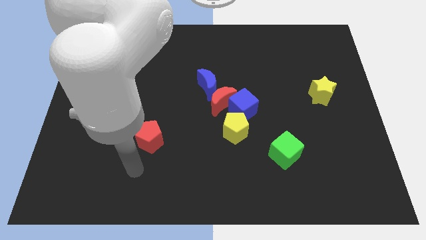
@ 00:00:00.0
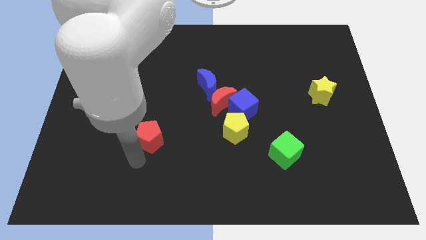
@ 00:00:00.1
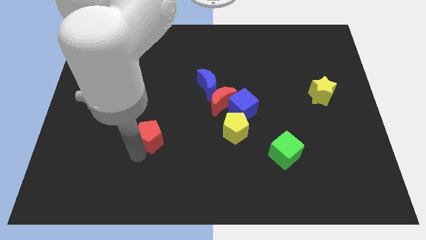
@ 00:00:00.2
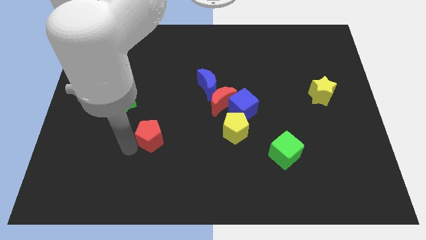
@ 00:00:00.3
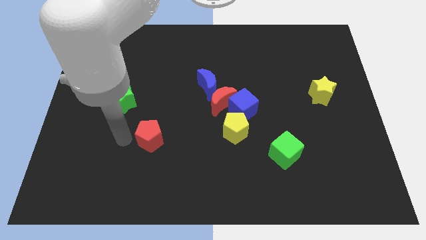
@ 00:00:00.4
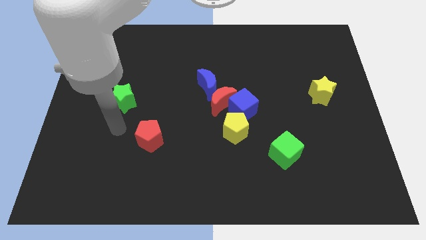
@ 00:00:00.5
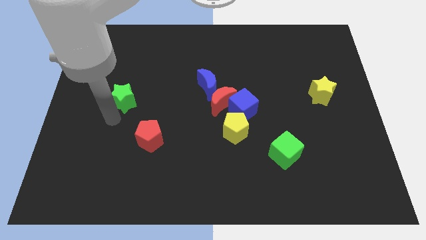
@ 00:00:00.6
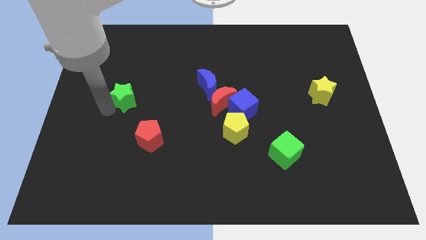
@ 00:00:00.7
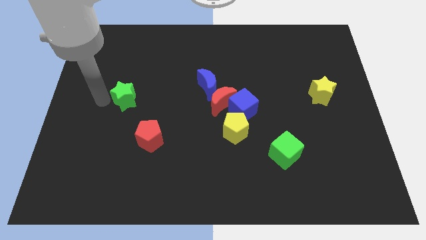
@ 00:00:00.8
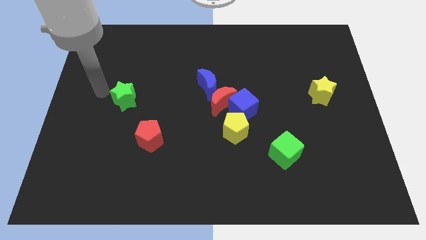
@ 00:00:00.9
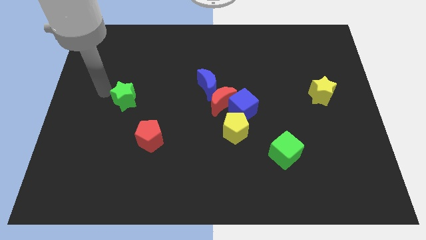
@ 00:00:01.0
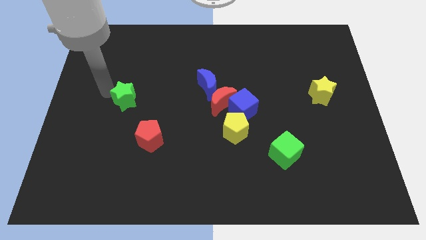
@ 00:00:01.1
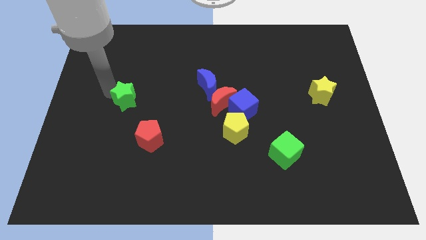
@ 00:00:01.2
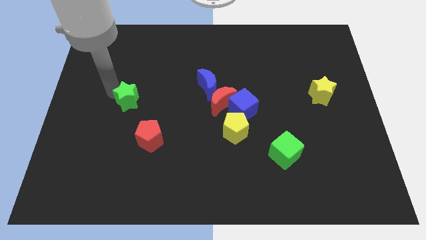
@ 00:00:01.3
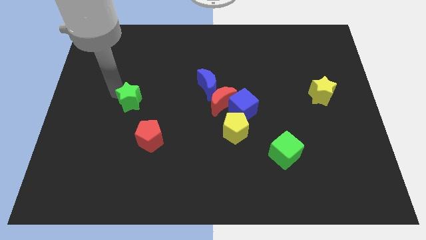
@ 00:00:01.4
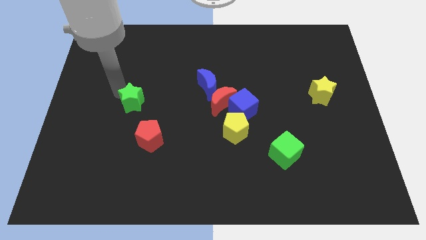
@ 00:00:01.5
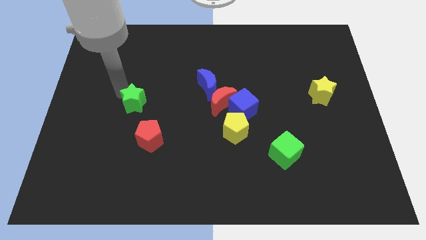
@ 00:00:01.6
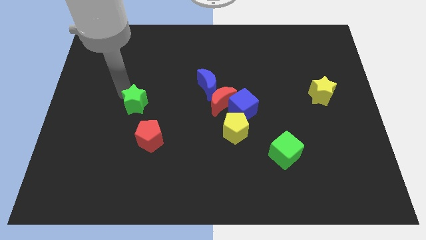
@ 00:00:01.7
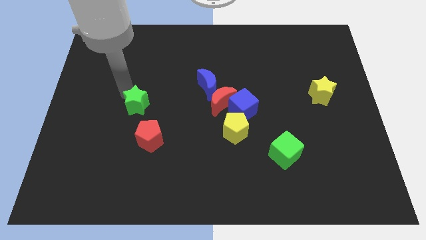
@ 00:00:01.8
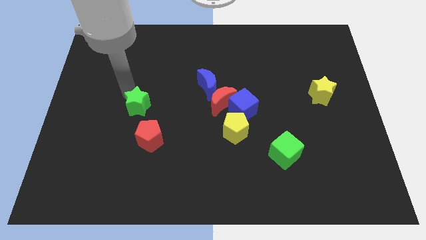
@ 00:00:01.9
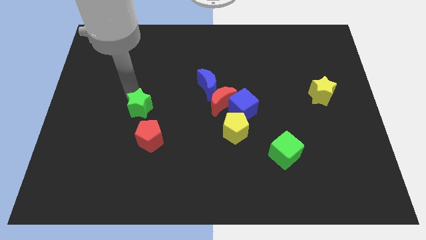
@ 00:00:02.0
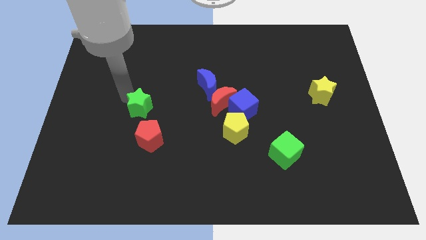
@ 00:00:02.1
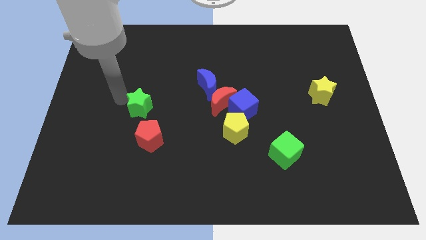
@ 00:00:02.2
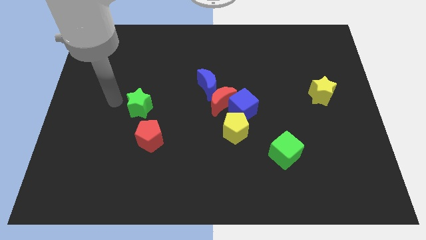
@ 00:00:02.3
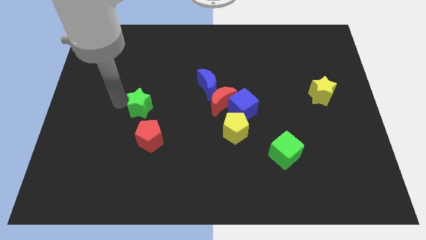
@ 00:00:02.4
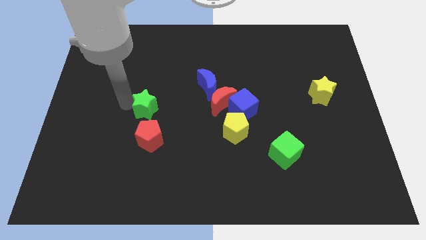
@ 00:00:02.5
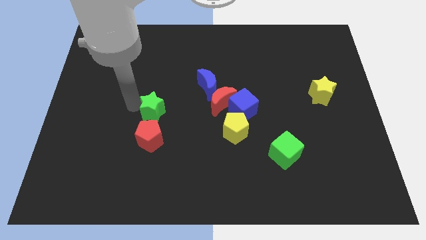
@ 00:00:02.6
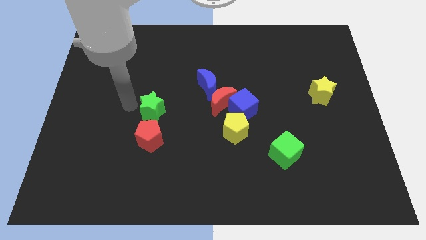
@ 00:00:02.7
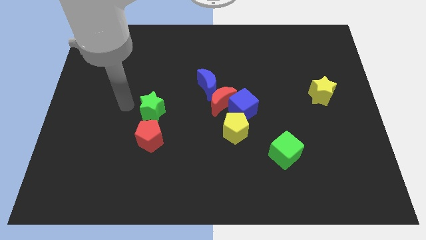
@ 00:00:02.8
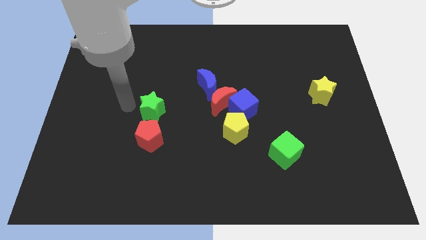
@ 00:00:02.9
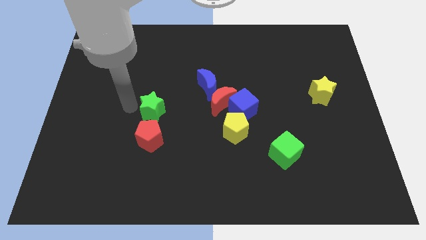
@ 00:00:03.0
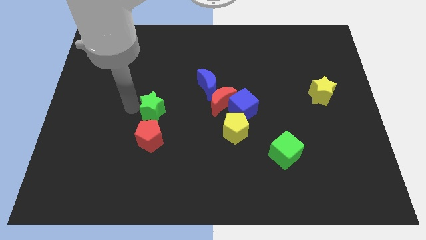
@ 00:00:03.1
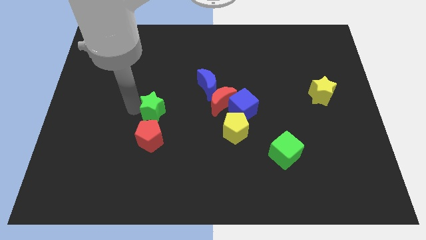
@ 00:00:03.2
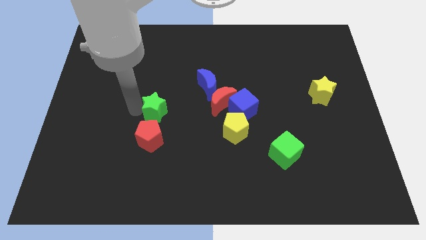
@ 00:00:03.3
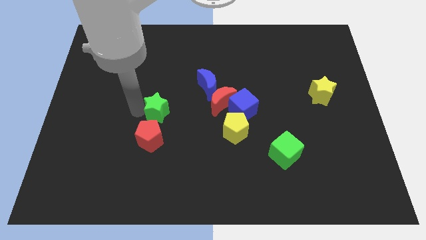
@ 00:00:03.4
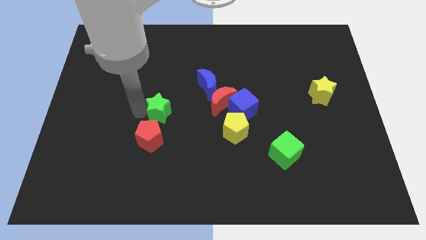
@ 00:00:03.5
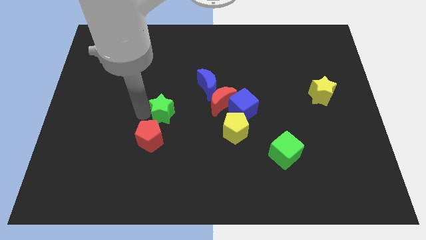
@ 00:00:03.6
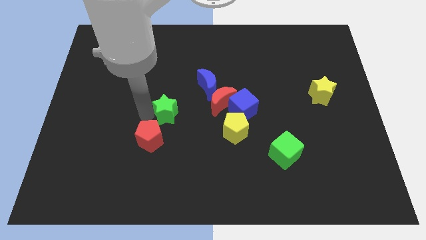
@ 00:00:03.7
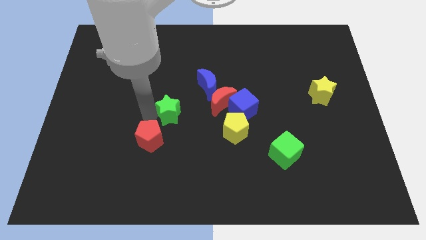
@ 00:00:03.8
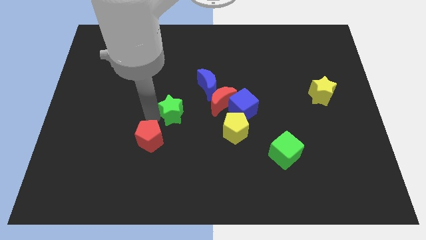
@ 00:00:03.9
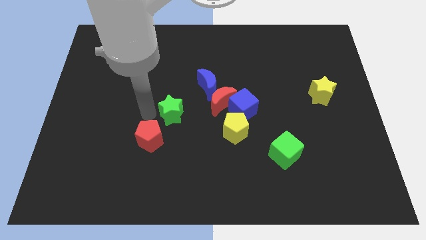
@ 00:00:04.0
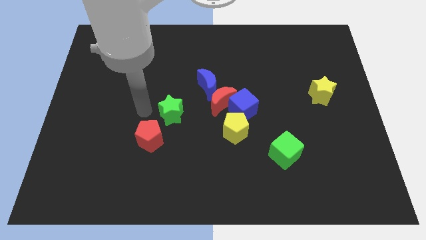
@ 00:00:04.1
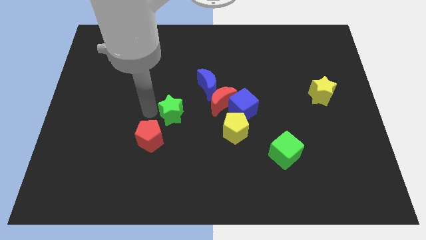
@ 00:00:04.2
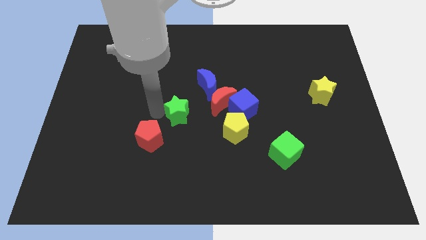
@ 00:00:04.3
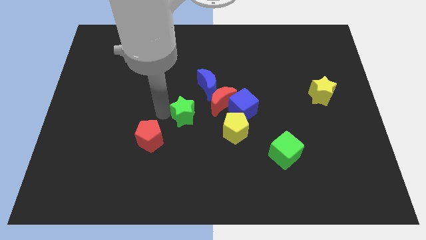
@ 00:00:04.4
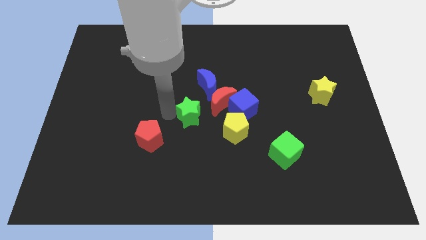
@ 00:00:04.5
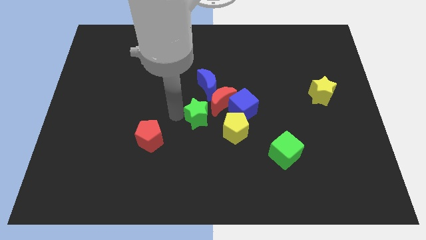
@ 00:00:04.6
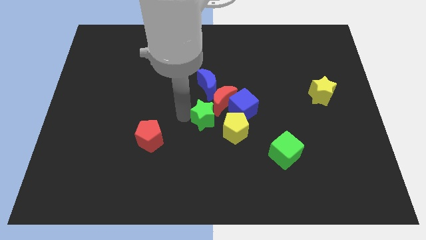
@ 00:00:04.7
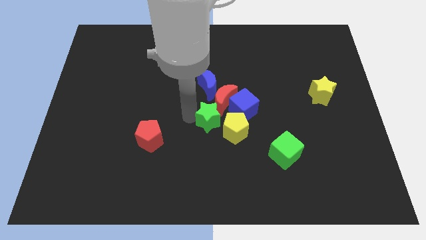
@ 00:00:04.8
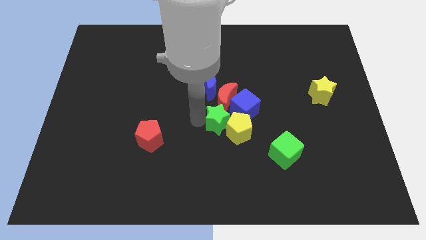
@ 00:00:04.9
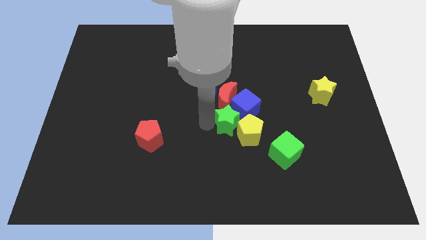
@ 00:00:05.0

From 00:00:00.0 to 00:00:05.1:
slide the green star close to the blue cube

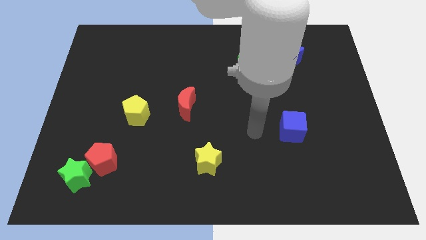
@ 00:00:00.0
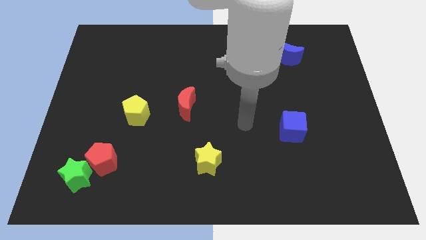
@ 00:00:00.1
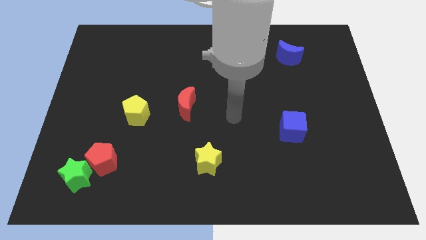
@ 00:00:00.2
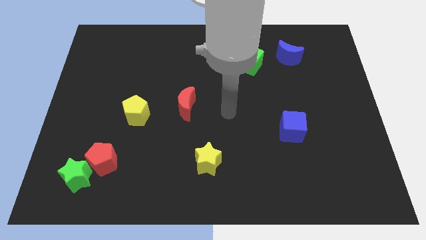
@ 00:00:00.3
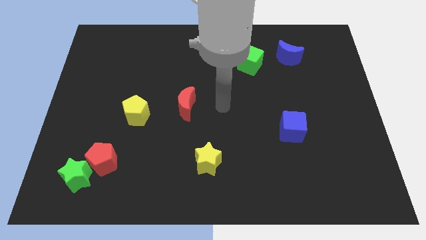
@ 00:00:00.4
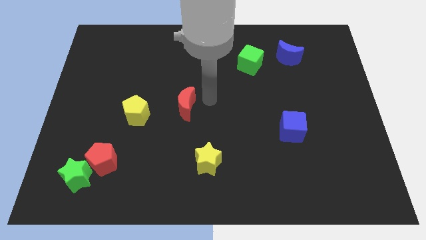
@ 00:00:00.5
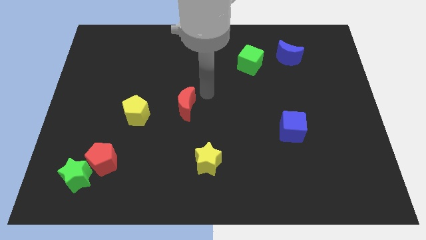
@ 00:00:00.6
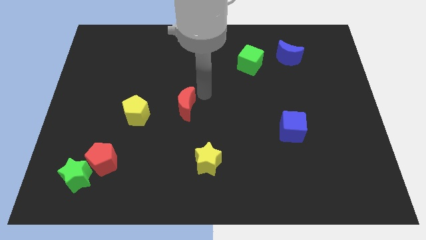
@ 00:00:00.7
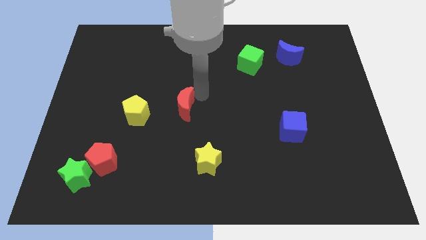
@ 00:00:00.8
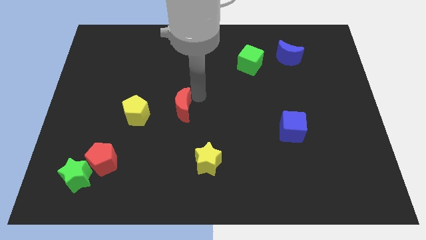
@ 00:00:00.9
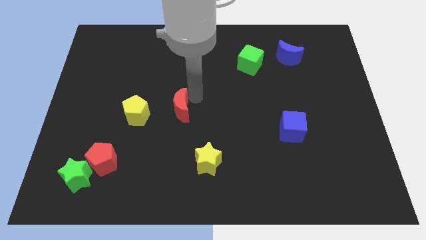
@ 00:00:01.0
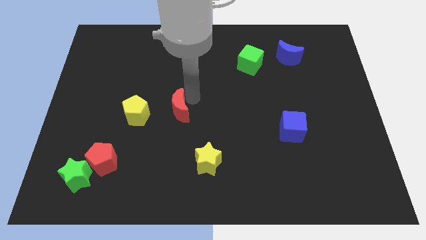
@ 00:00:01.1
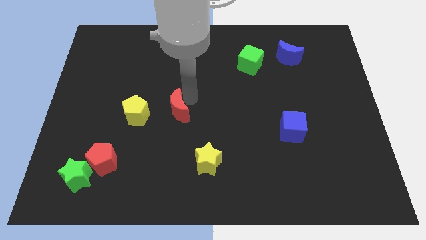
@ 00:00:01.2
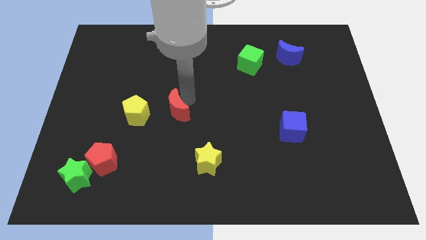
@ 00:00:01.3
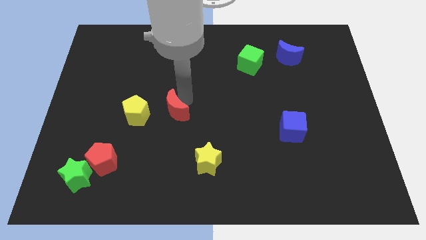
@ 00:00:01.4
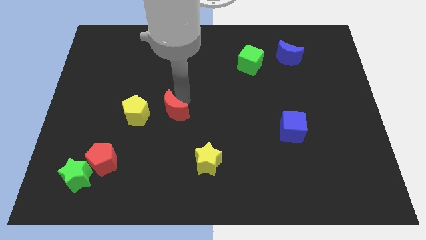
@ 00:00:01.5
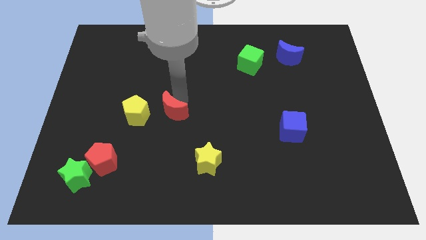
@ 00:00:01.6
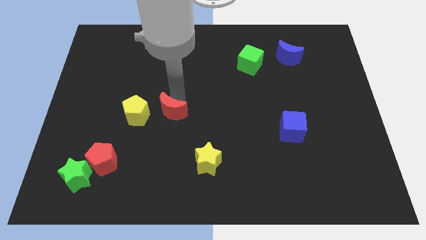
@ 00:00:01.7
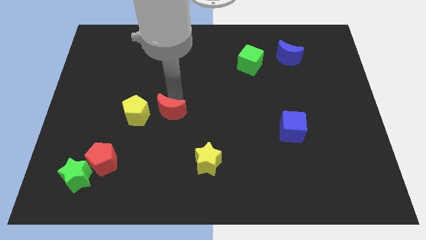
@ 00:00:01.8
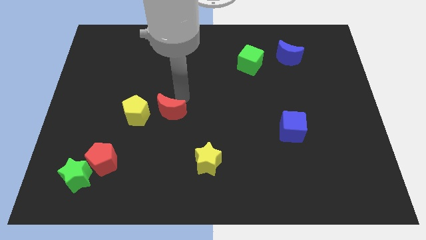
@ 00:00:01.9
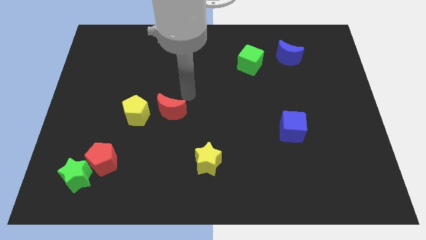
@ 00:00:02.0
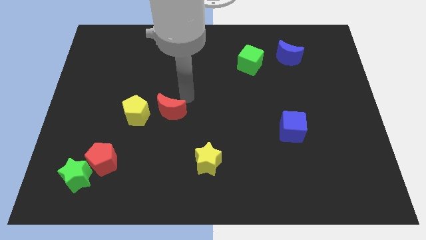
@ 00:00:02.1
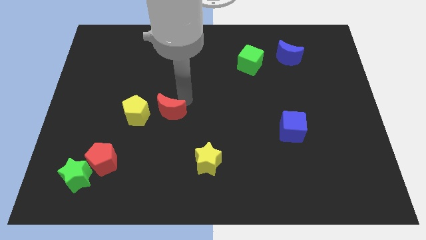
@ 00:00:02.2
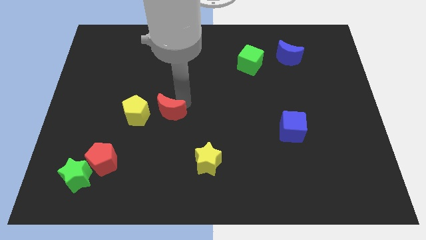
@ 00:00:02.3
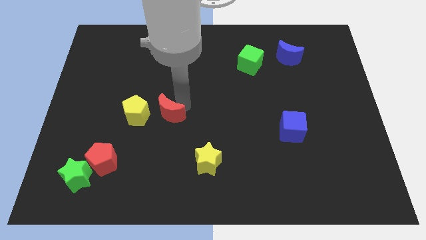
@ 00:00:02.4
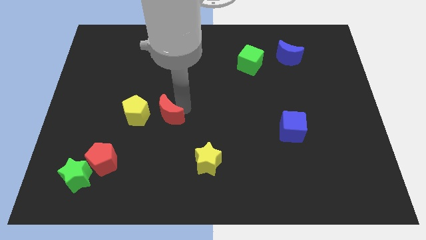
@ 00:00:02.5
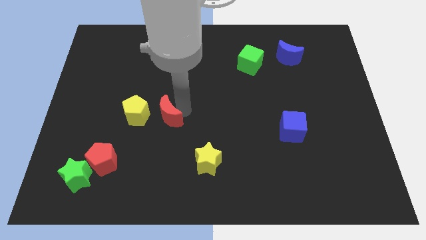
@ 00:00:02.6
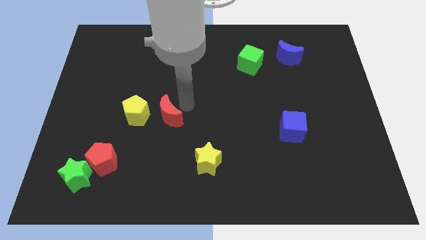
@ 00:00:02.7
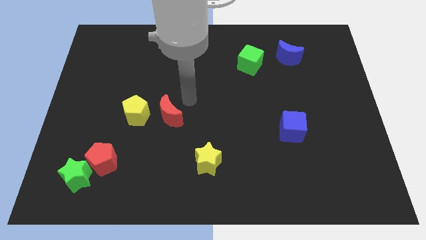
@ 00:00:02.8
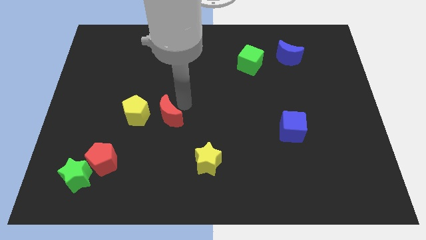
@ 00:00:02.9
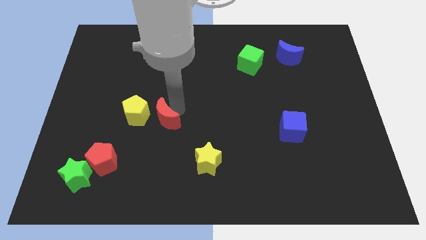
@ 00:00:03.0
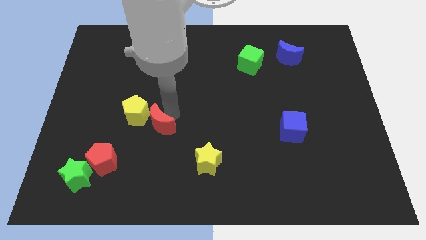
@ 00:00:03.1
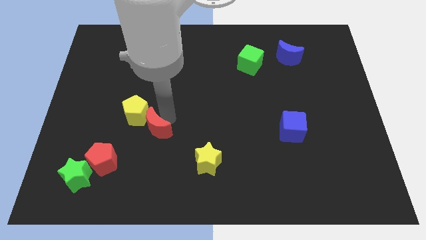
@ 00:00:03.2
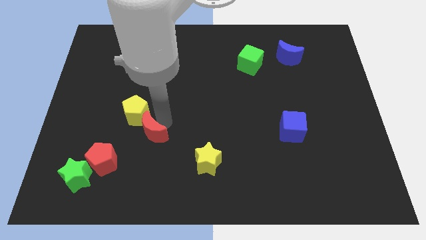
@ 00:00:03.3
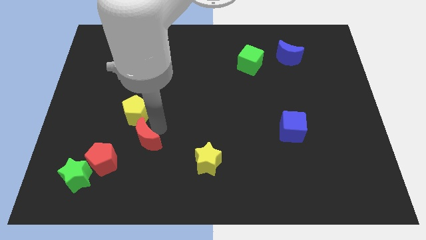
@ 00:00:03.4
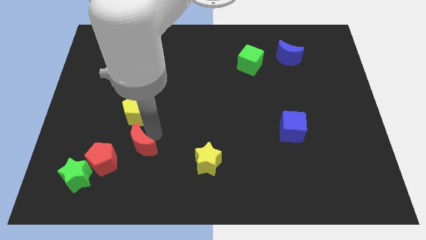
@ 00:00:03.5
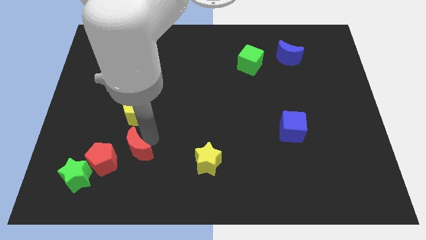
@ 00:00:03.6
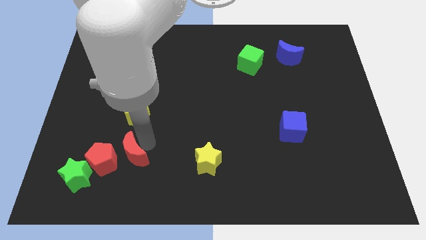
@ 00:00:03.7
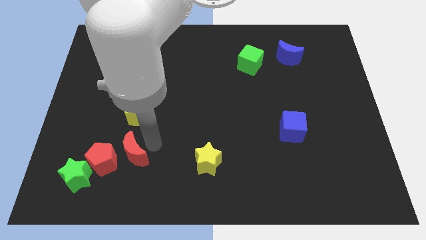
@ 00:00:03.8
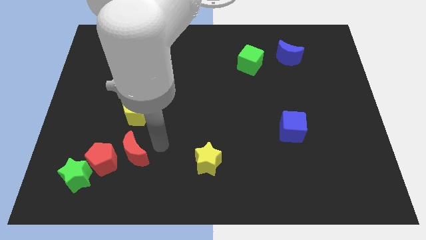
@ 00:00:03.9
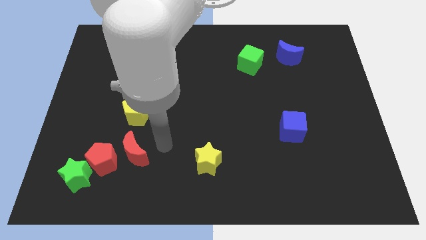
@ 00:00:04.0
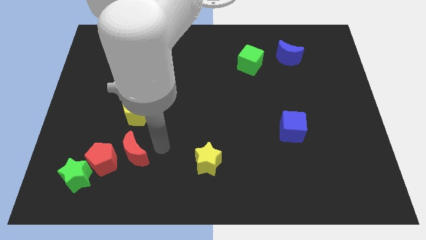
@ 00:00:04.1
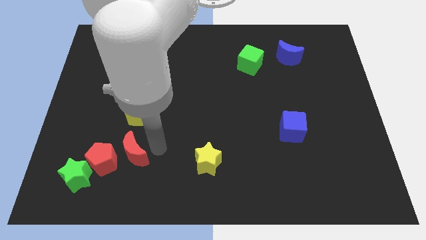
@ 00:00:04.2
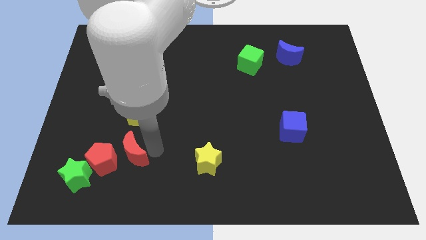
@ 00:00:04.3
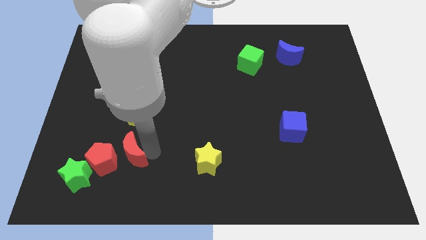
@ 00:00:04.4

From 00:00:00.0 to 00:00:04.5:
put the red moon next to the red pentagon
